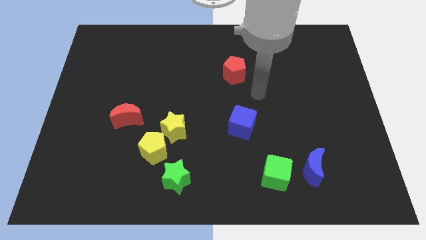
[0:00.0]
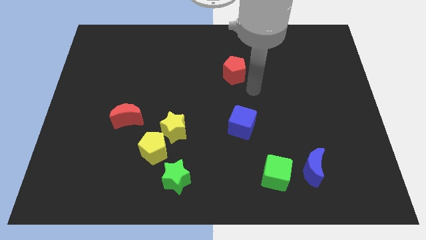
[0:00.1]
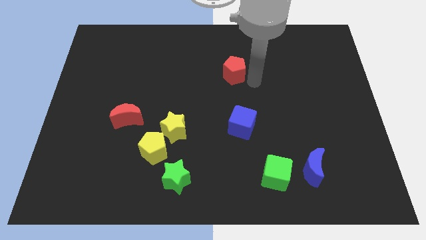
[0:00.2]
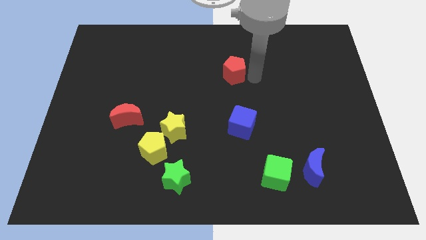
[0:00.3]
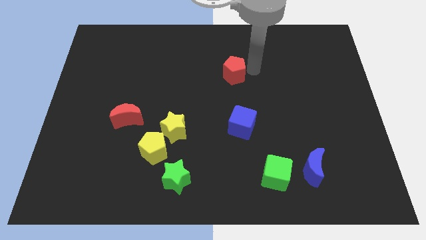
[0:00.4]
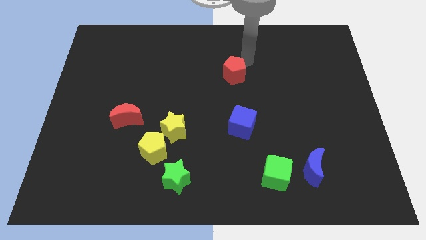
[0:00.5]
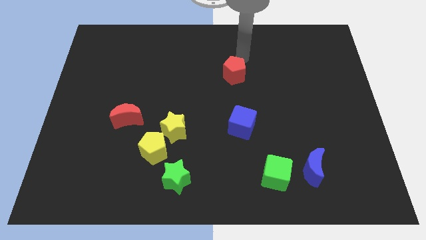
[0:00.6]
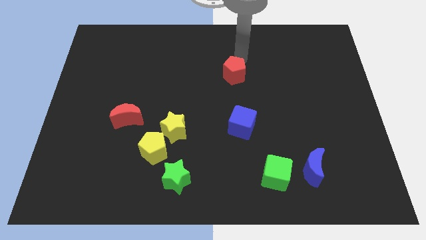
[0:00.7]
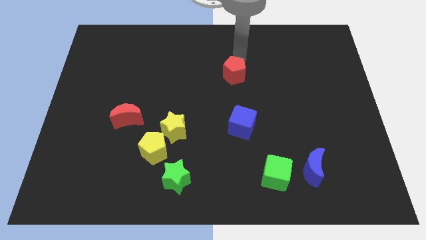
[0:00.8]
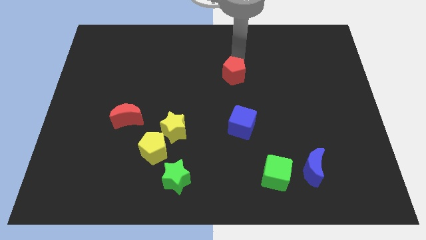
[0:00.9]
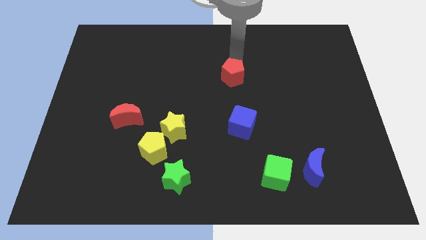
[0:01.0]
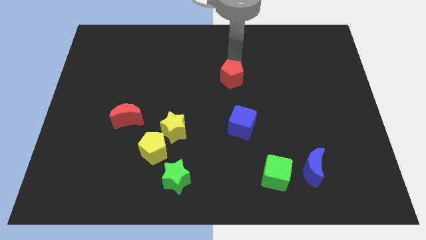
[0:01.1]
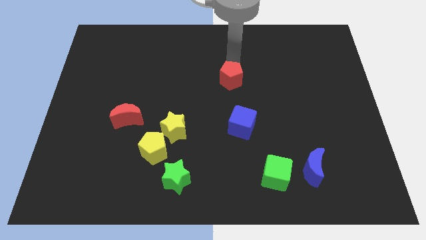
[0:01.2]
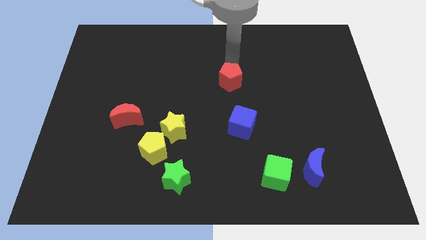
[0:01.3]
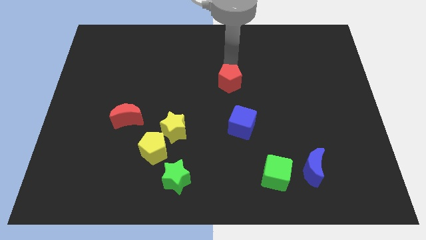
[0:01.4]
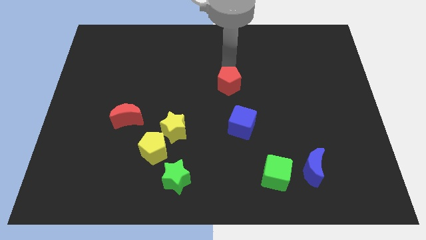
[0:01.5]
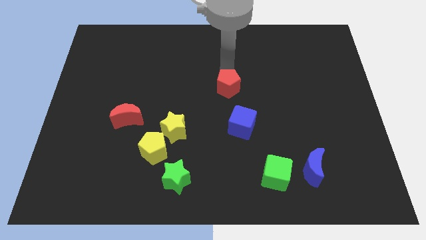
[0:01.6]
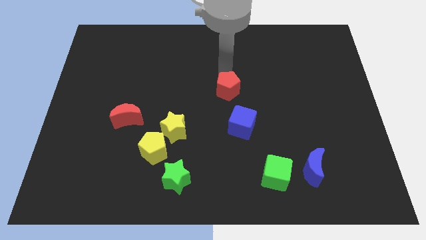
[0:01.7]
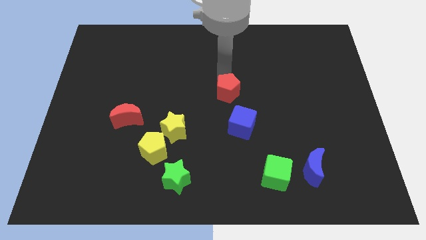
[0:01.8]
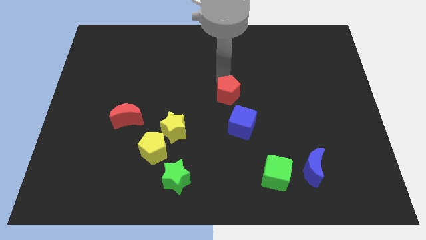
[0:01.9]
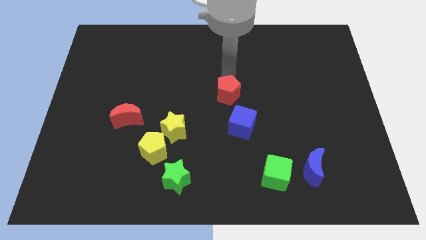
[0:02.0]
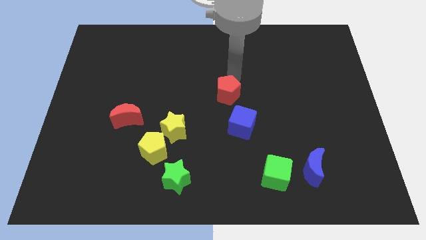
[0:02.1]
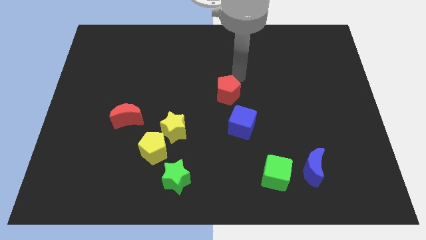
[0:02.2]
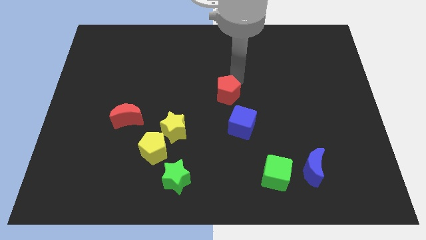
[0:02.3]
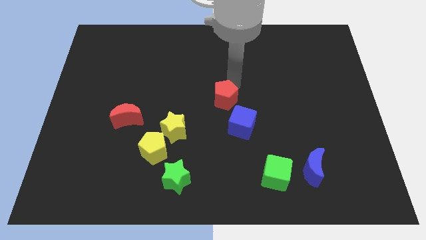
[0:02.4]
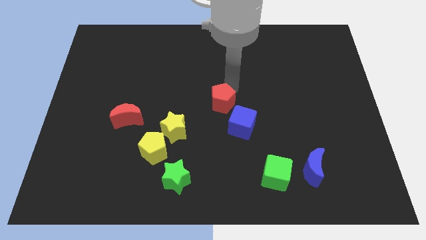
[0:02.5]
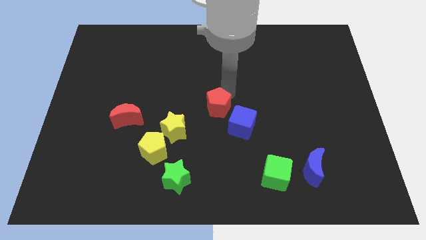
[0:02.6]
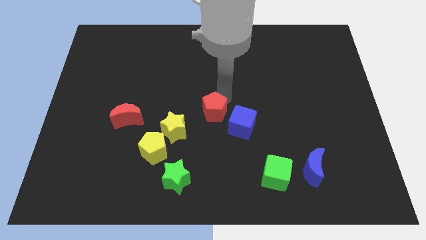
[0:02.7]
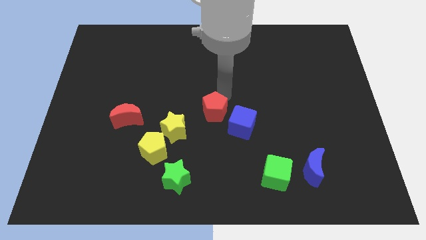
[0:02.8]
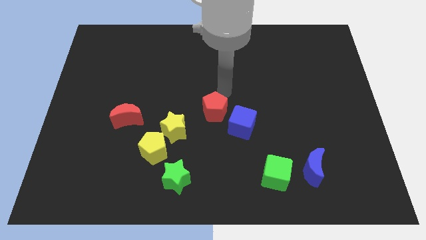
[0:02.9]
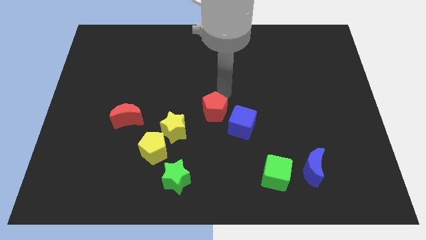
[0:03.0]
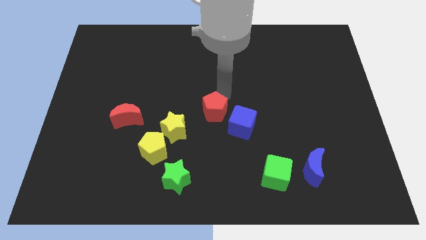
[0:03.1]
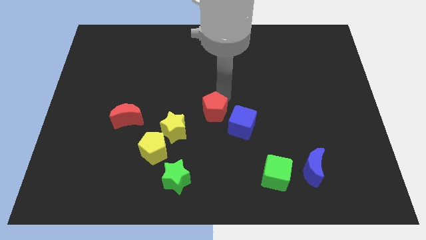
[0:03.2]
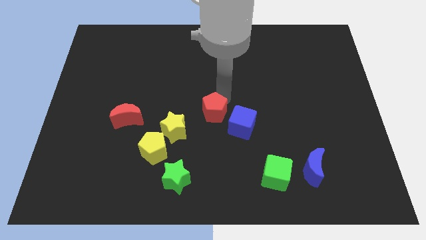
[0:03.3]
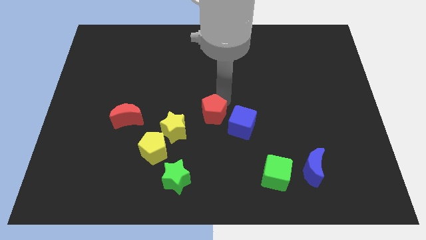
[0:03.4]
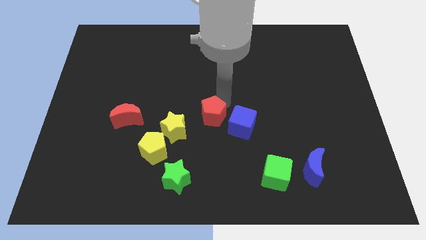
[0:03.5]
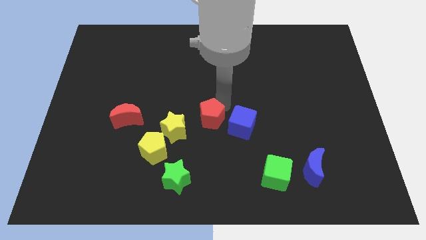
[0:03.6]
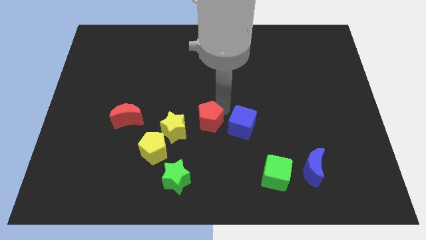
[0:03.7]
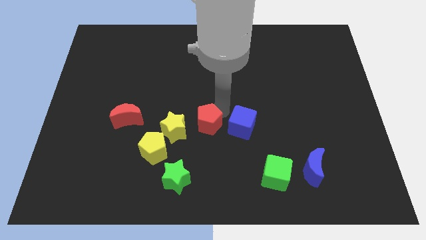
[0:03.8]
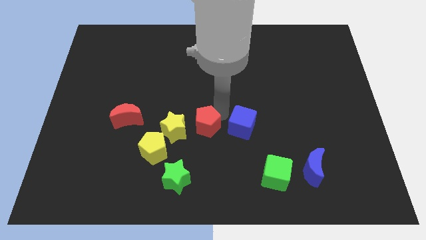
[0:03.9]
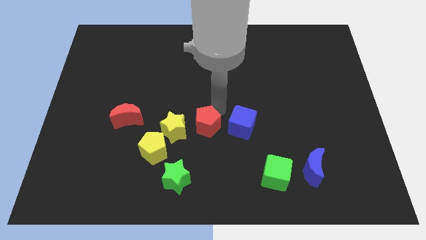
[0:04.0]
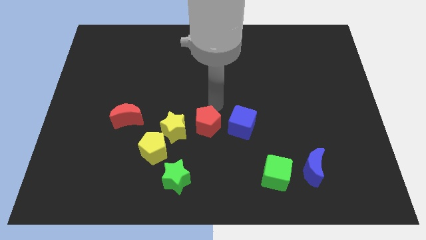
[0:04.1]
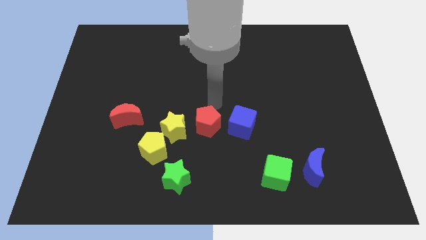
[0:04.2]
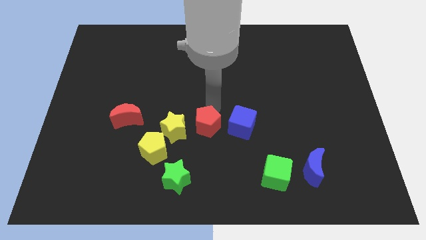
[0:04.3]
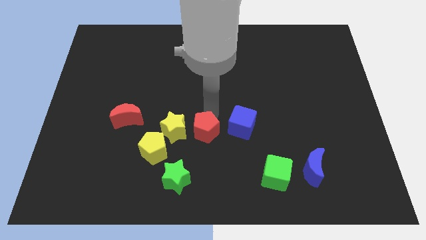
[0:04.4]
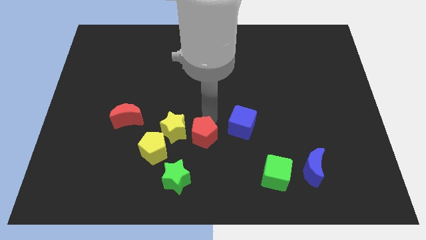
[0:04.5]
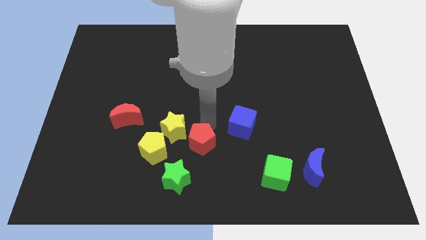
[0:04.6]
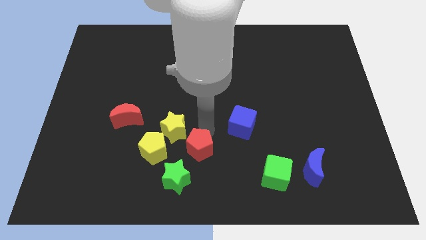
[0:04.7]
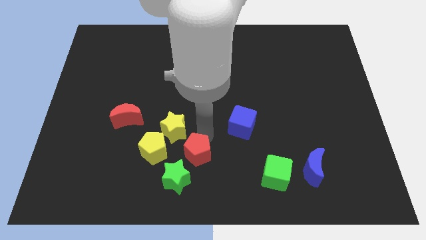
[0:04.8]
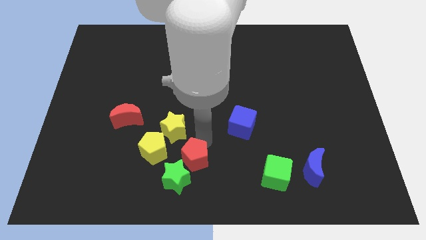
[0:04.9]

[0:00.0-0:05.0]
move the red pentagon towards the green star

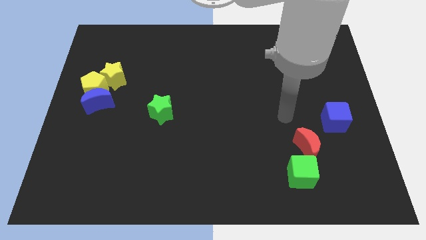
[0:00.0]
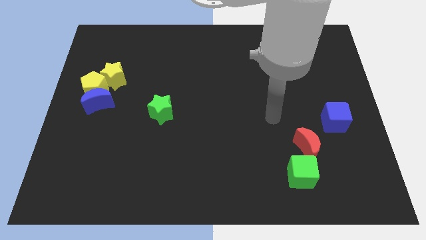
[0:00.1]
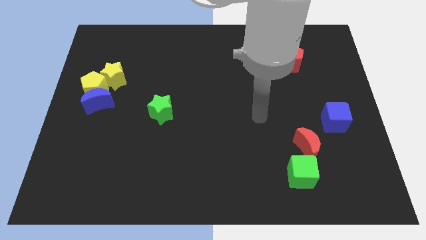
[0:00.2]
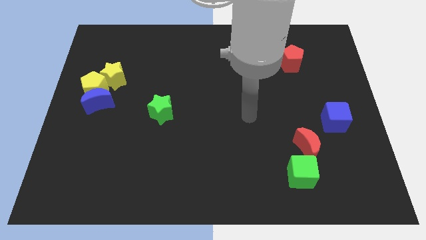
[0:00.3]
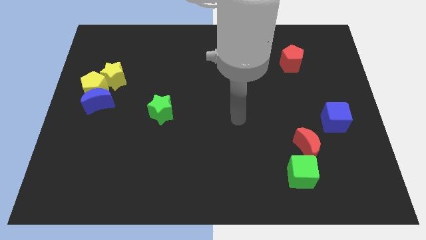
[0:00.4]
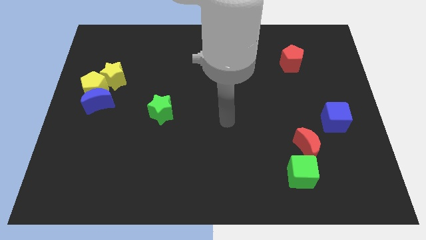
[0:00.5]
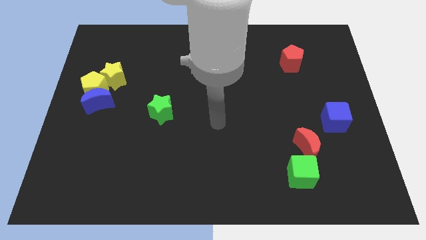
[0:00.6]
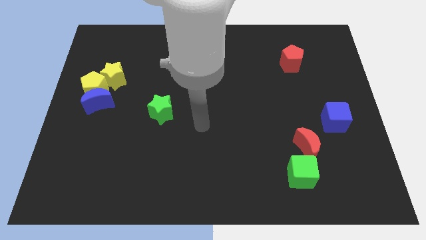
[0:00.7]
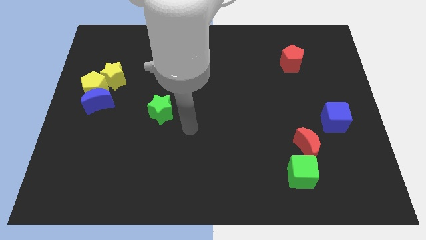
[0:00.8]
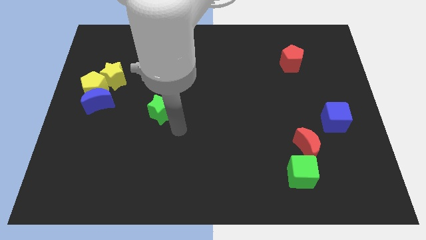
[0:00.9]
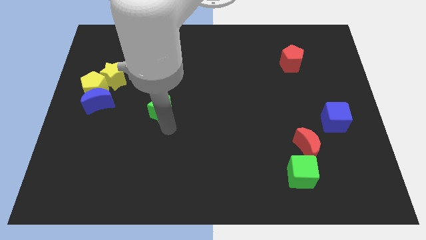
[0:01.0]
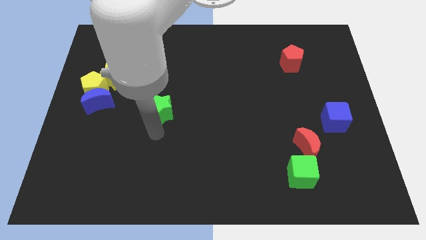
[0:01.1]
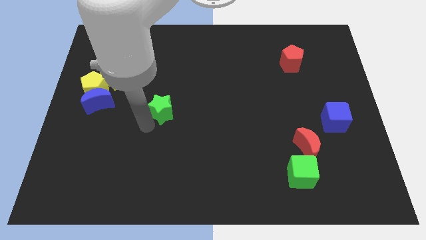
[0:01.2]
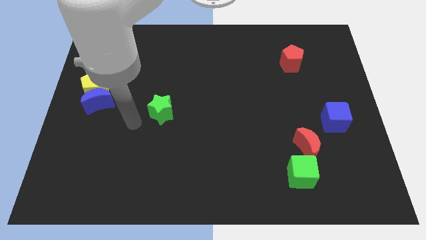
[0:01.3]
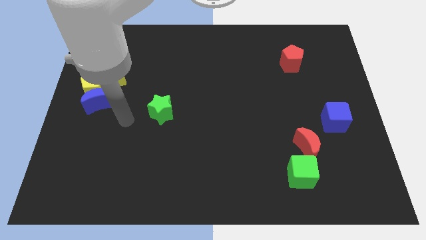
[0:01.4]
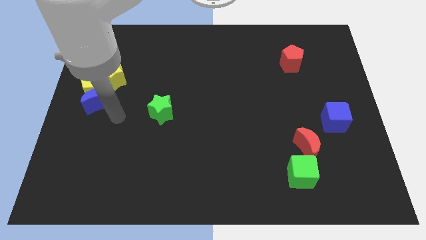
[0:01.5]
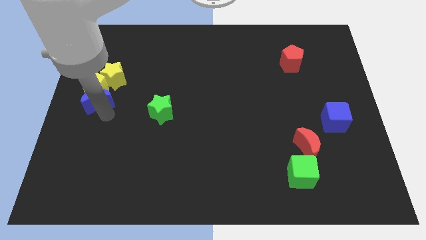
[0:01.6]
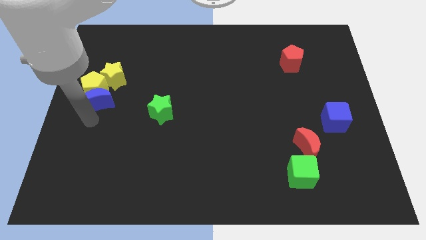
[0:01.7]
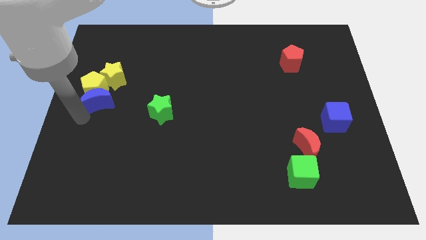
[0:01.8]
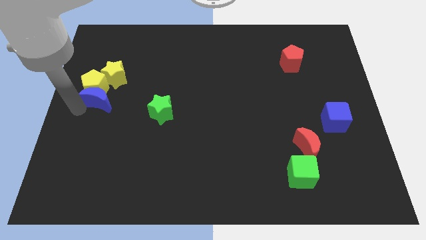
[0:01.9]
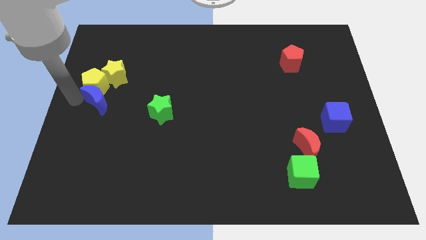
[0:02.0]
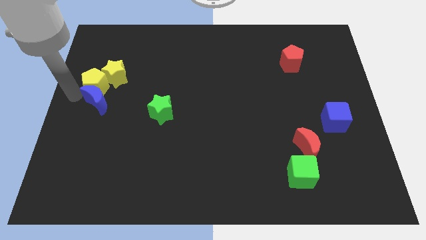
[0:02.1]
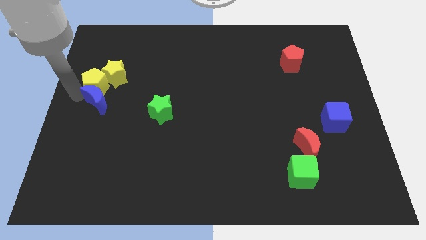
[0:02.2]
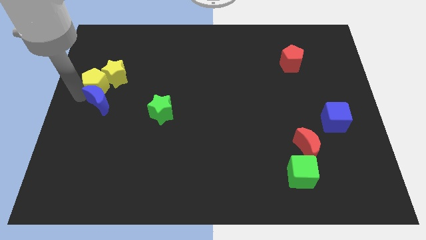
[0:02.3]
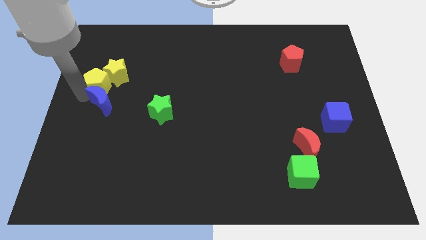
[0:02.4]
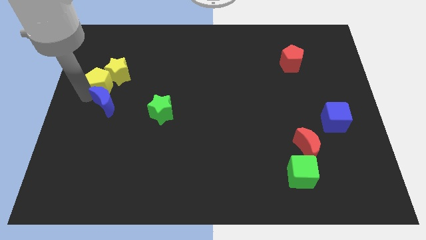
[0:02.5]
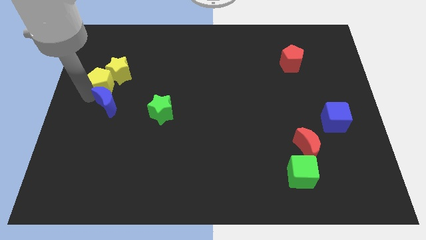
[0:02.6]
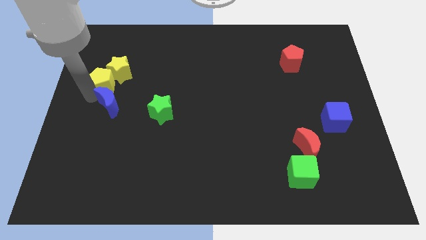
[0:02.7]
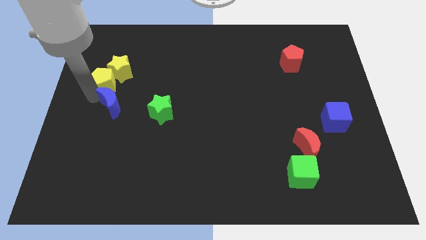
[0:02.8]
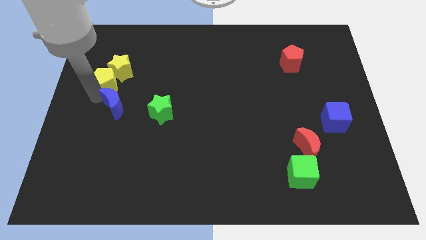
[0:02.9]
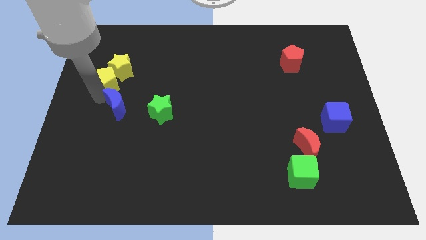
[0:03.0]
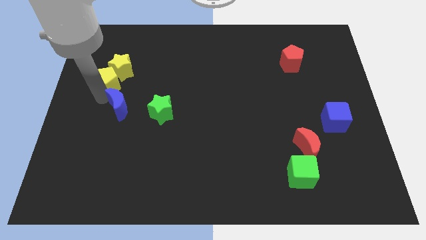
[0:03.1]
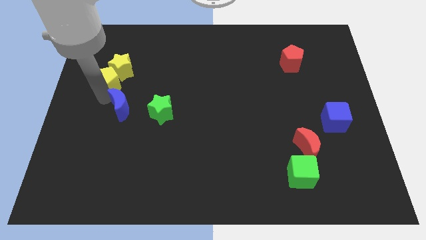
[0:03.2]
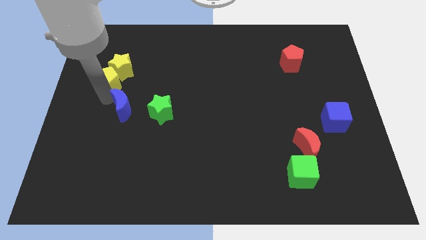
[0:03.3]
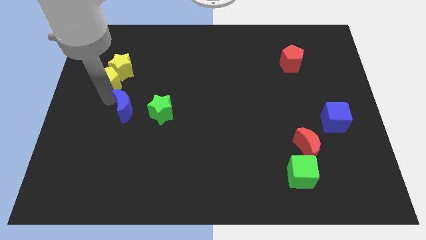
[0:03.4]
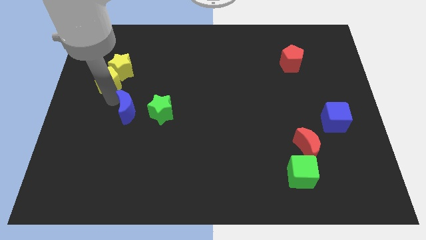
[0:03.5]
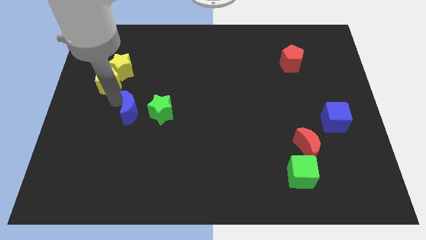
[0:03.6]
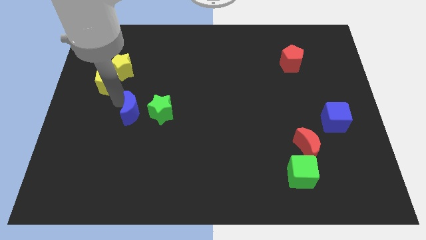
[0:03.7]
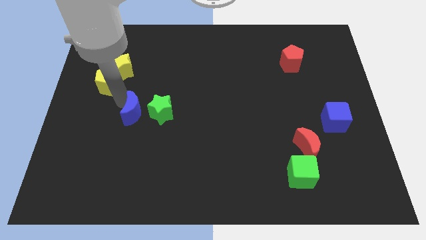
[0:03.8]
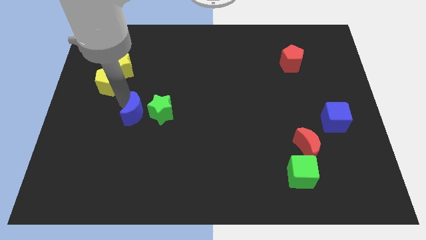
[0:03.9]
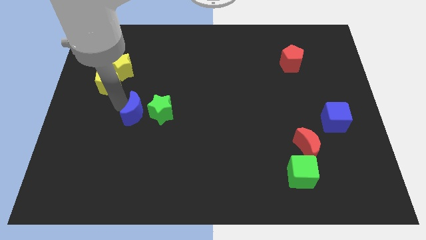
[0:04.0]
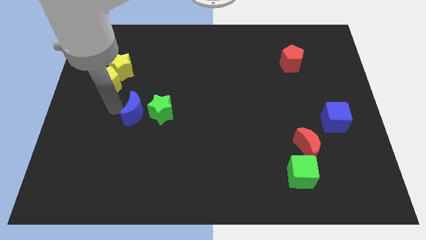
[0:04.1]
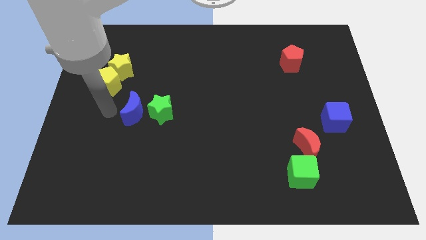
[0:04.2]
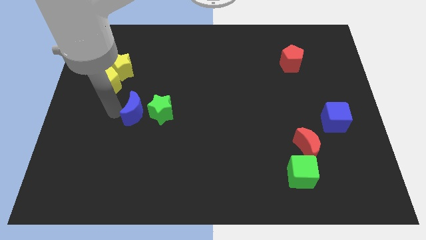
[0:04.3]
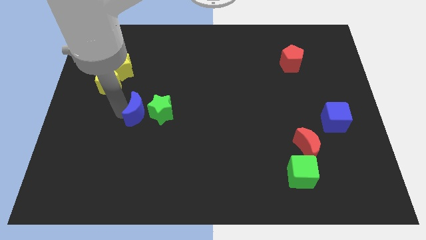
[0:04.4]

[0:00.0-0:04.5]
slide the blue moon next to the green star
